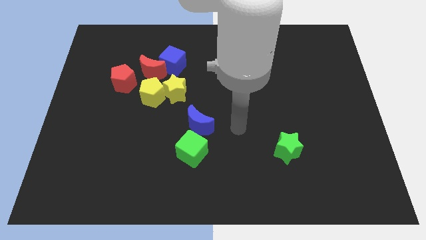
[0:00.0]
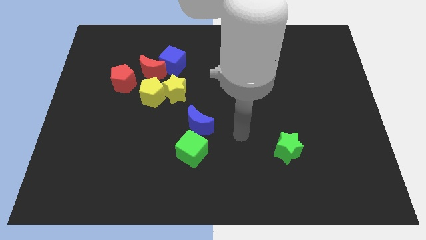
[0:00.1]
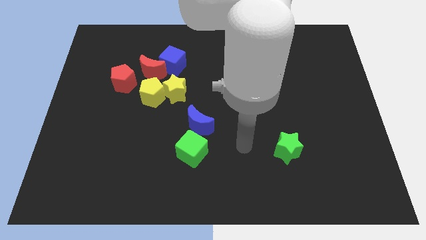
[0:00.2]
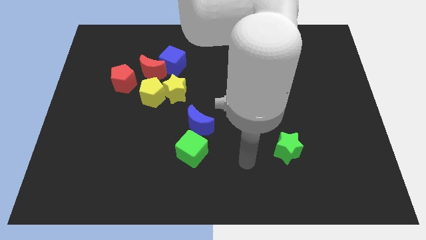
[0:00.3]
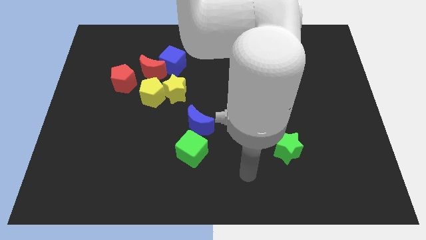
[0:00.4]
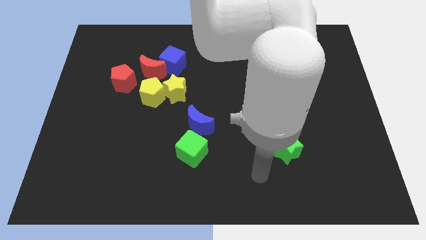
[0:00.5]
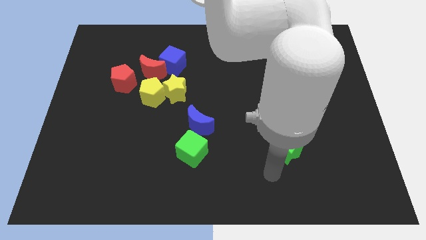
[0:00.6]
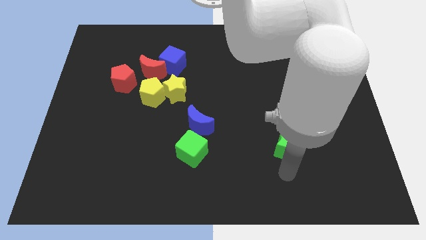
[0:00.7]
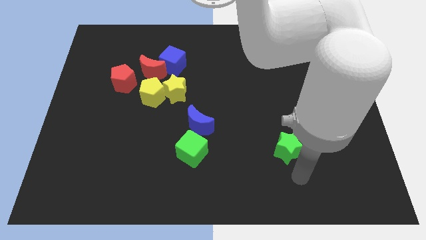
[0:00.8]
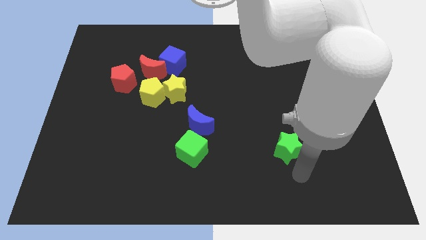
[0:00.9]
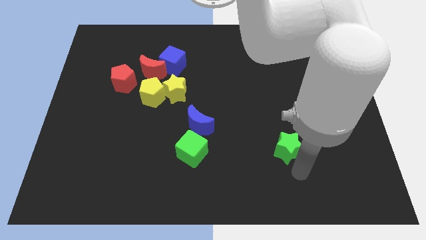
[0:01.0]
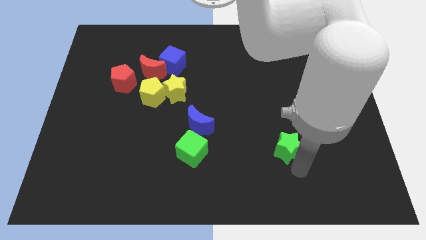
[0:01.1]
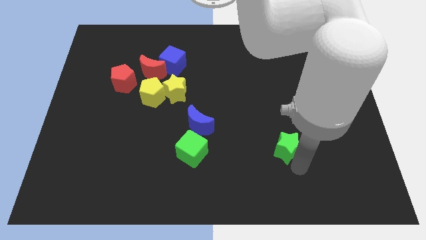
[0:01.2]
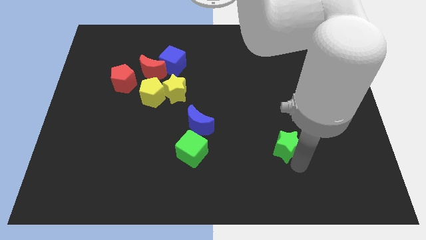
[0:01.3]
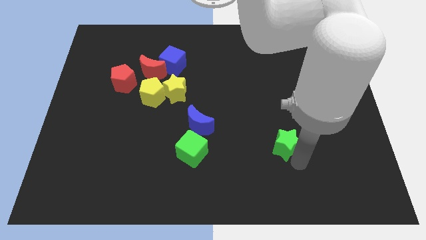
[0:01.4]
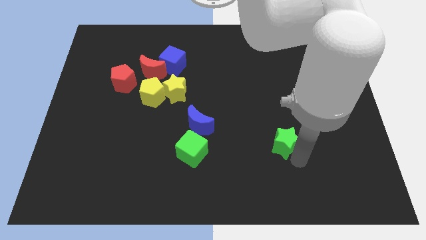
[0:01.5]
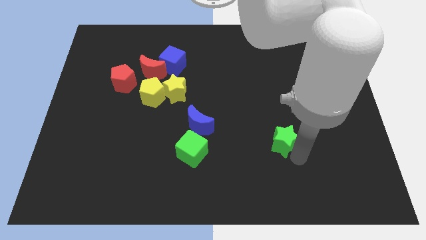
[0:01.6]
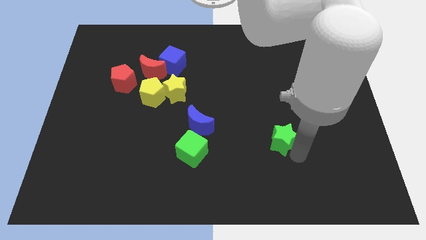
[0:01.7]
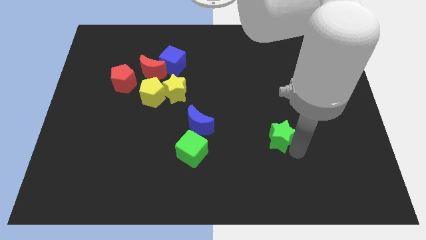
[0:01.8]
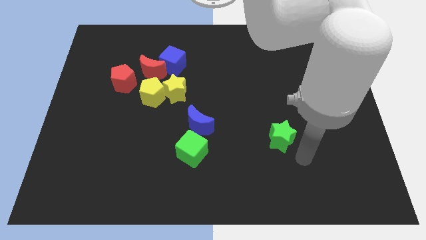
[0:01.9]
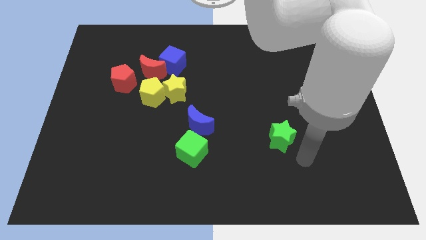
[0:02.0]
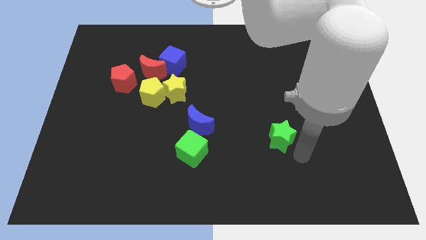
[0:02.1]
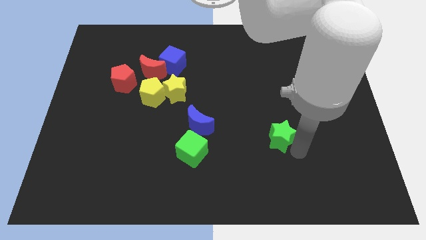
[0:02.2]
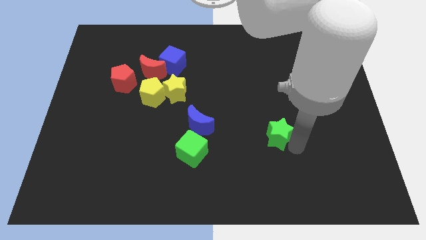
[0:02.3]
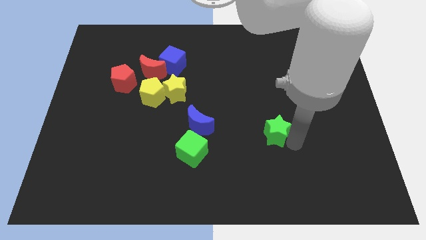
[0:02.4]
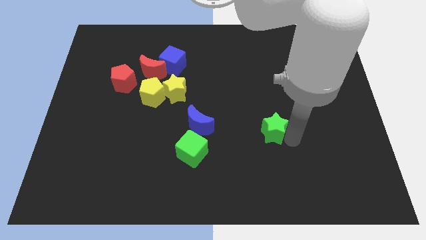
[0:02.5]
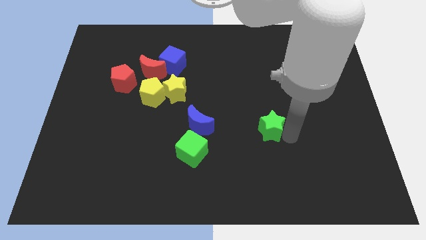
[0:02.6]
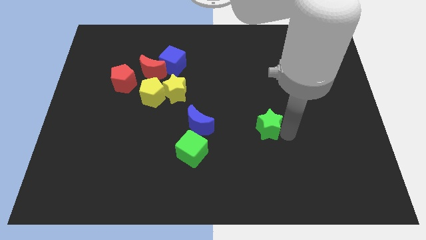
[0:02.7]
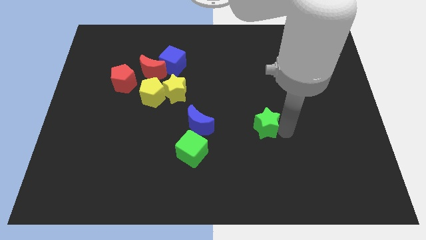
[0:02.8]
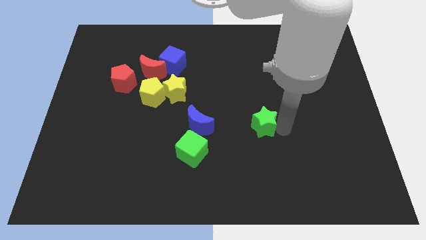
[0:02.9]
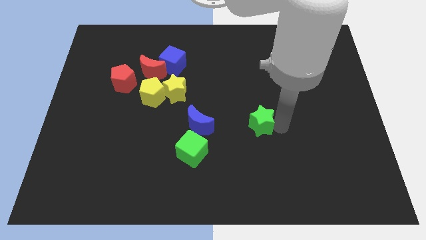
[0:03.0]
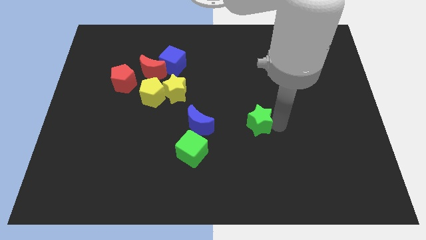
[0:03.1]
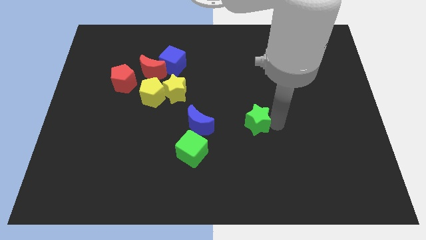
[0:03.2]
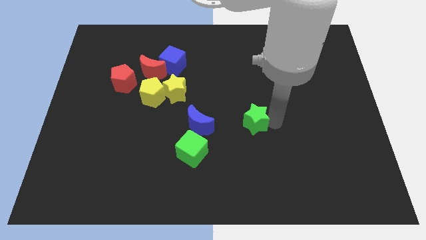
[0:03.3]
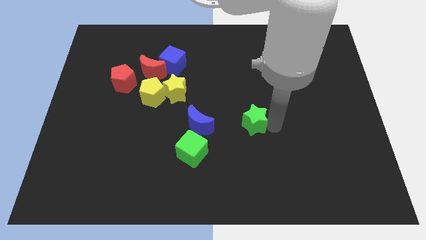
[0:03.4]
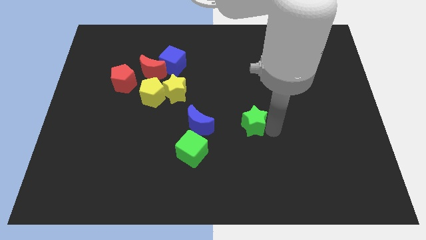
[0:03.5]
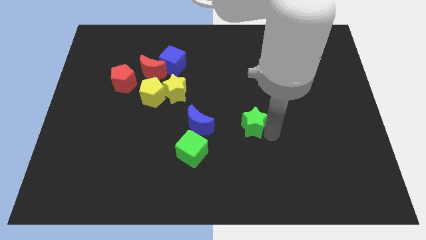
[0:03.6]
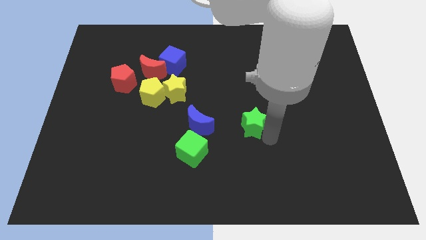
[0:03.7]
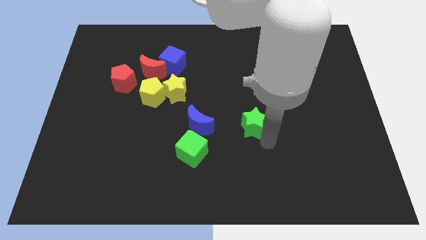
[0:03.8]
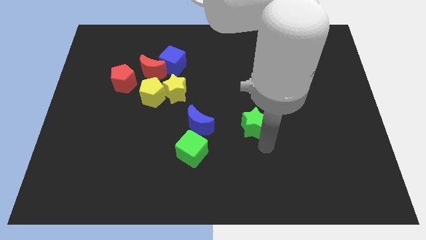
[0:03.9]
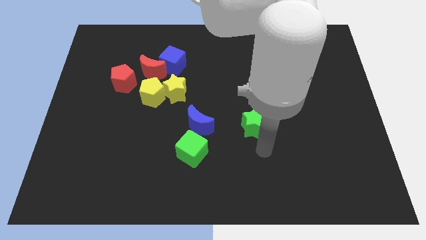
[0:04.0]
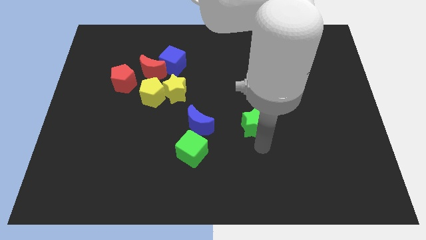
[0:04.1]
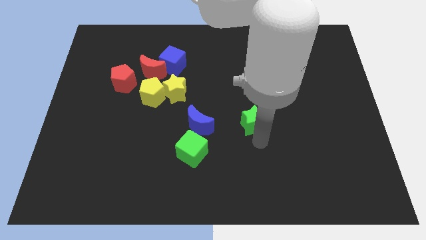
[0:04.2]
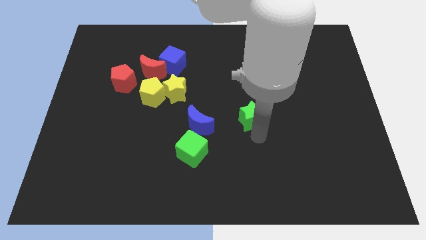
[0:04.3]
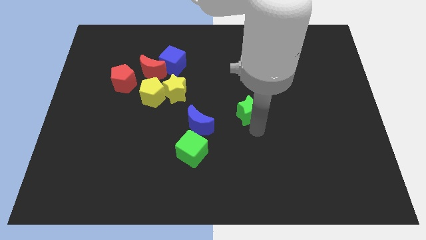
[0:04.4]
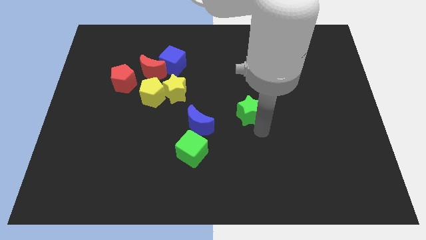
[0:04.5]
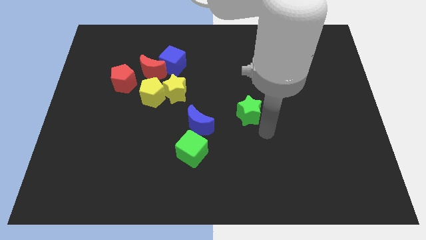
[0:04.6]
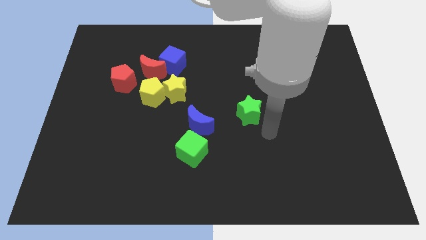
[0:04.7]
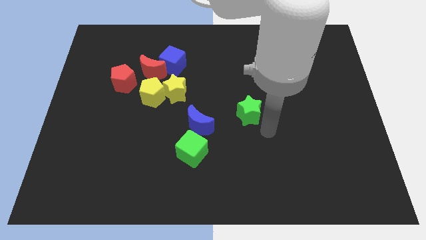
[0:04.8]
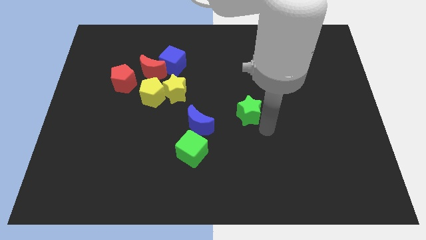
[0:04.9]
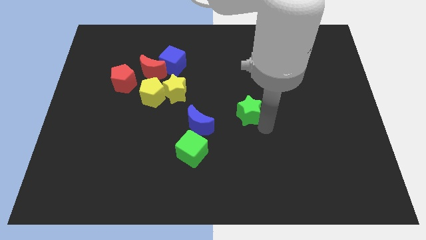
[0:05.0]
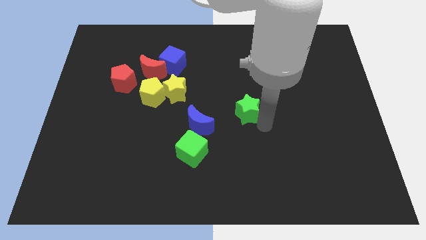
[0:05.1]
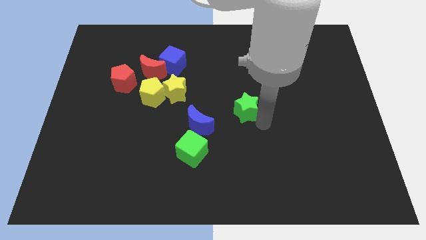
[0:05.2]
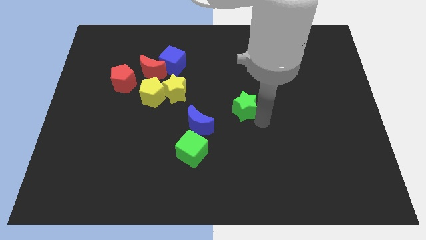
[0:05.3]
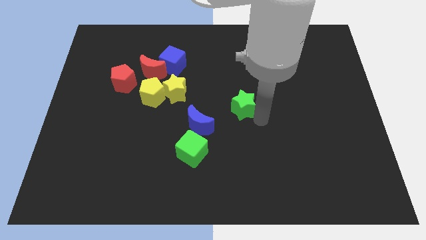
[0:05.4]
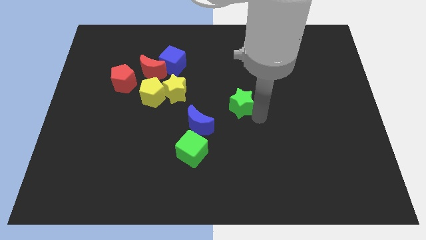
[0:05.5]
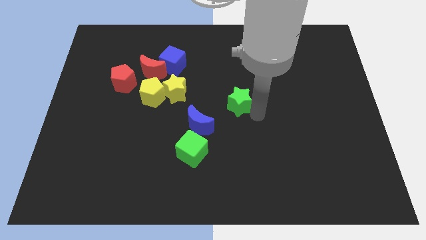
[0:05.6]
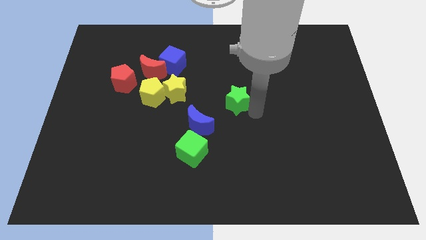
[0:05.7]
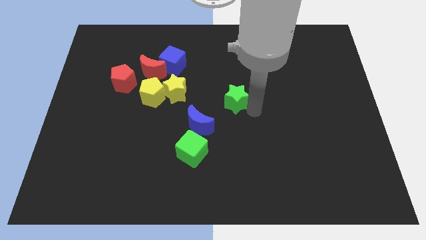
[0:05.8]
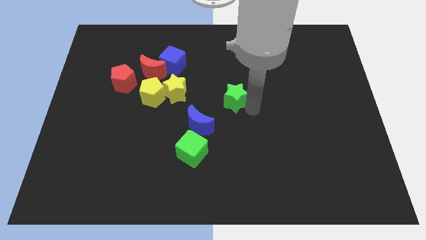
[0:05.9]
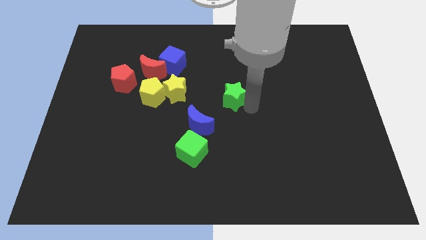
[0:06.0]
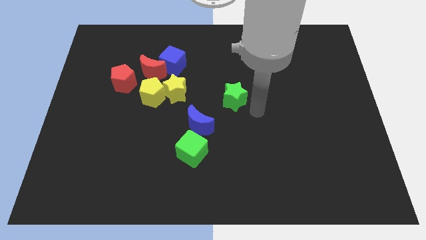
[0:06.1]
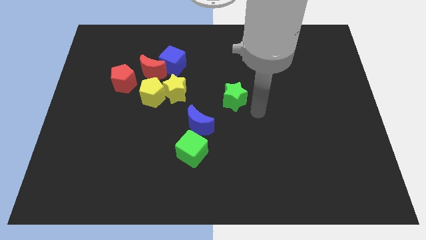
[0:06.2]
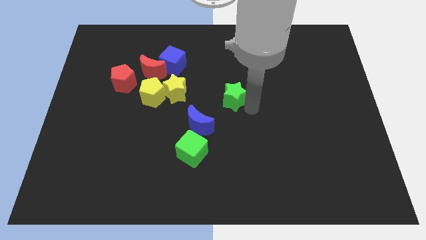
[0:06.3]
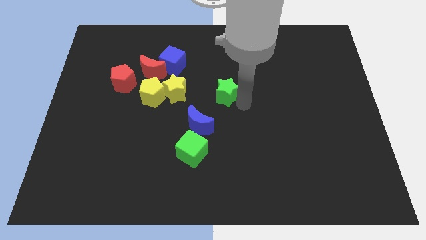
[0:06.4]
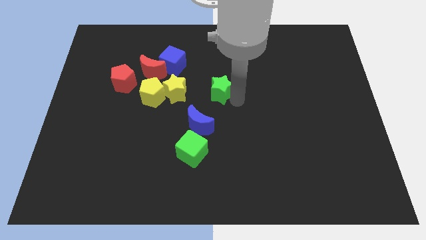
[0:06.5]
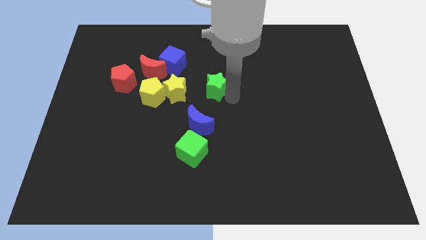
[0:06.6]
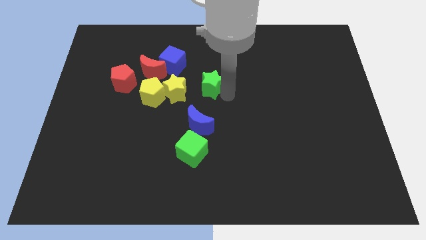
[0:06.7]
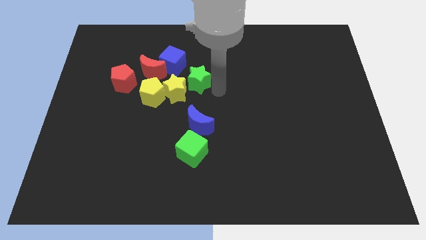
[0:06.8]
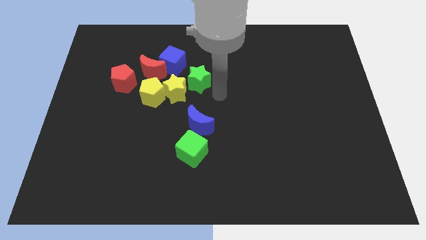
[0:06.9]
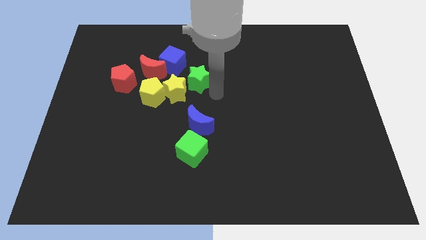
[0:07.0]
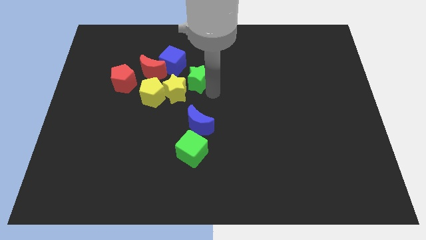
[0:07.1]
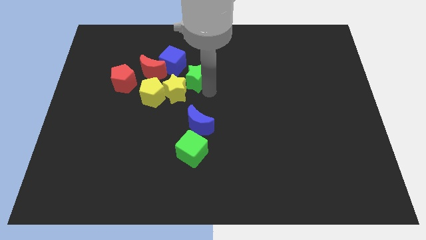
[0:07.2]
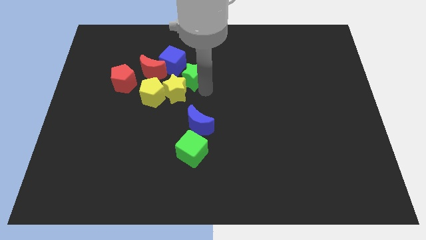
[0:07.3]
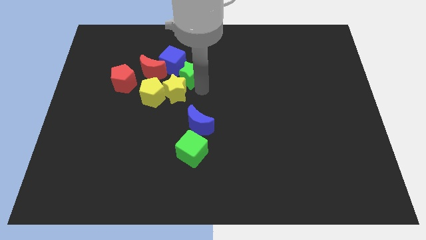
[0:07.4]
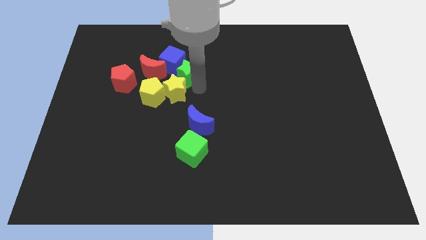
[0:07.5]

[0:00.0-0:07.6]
put the green star next to the blue cube
